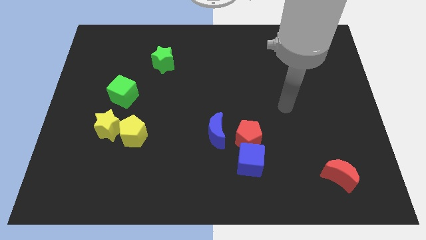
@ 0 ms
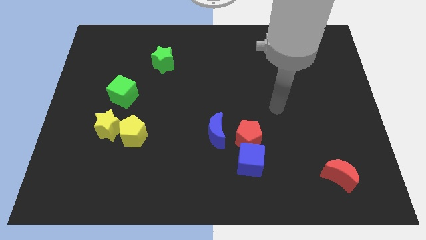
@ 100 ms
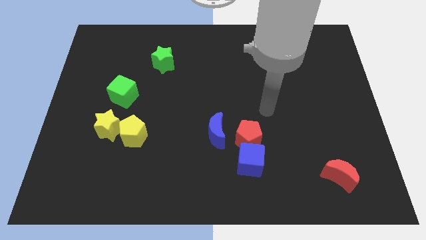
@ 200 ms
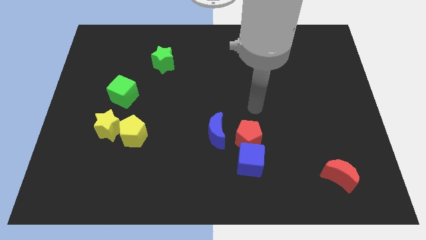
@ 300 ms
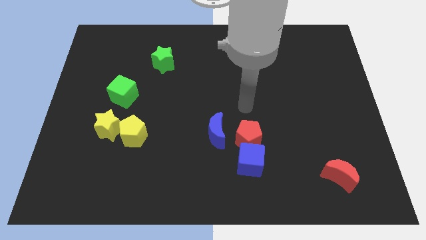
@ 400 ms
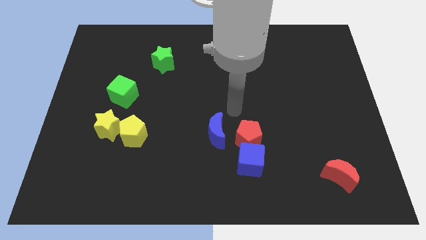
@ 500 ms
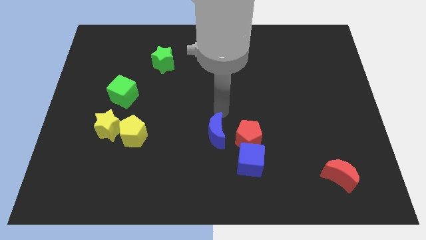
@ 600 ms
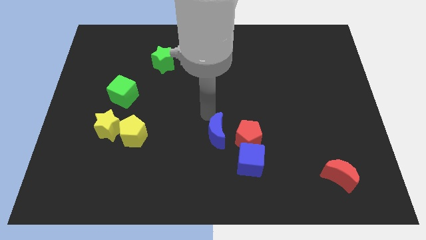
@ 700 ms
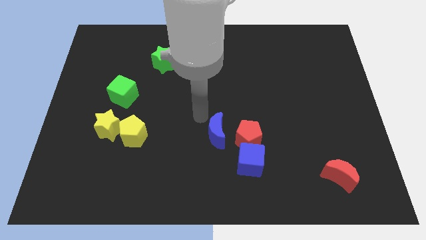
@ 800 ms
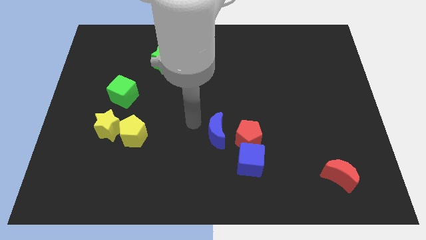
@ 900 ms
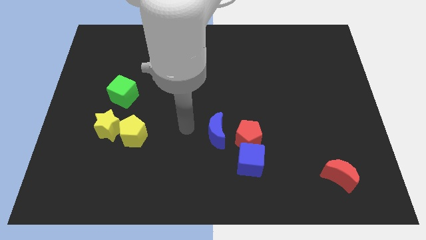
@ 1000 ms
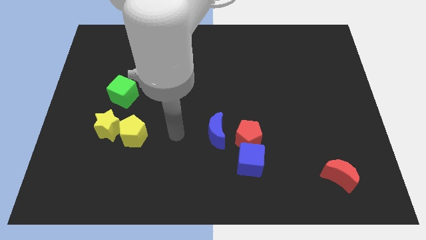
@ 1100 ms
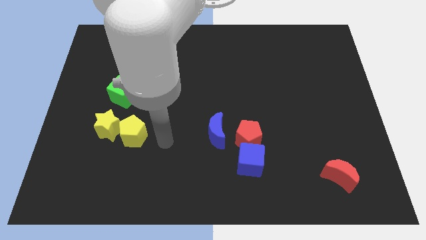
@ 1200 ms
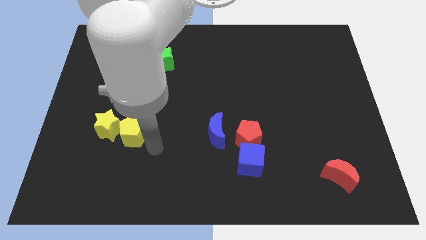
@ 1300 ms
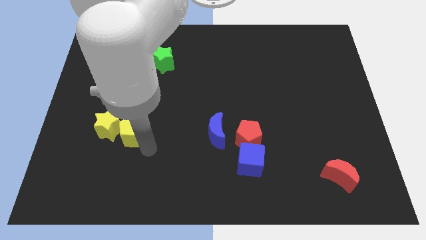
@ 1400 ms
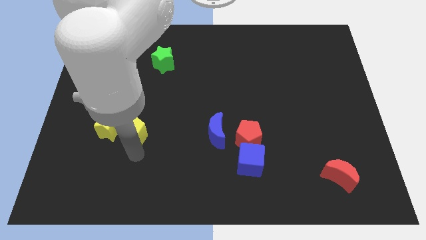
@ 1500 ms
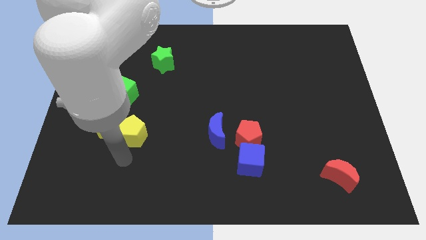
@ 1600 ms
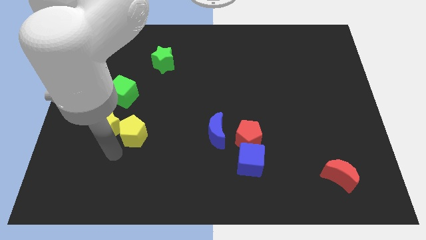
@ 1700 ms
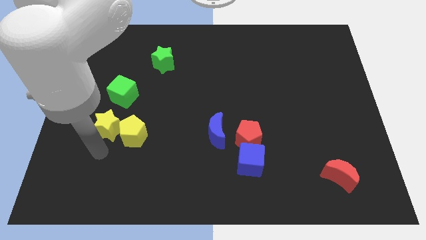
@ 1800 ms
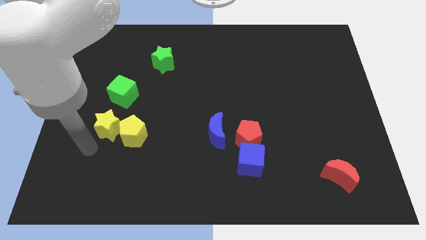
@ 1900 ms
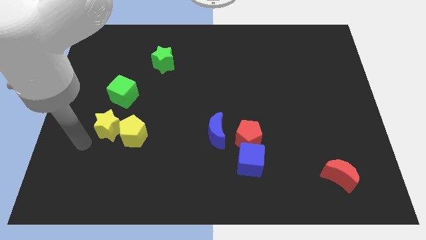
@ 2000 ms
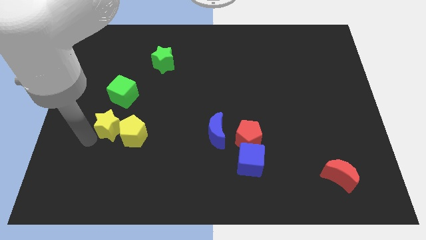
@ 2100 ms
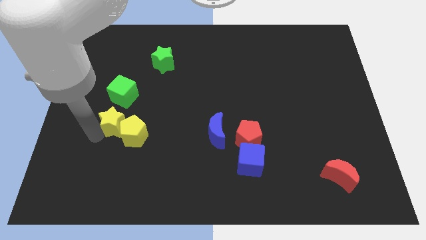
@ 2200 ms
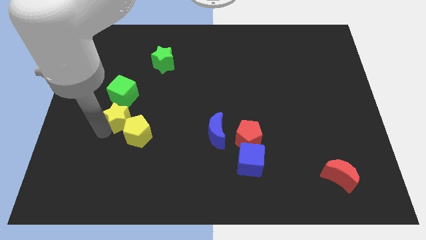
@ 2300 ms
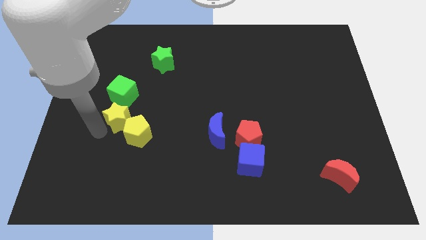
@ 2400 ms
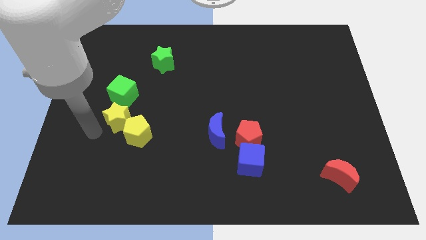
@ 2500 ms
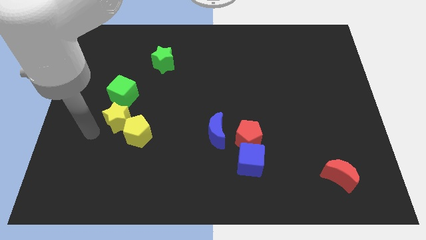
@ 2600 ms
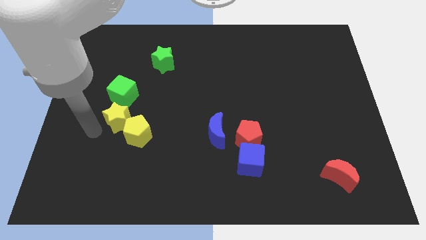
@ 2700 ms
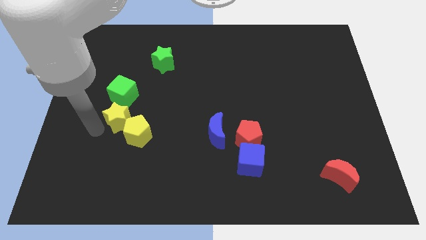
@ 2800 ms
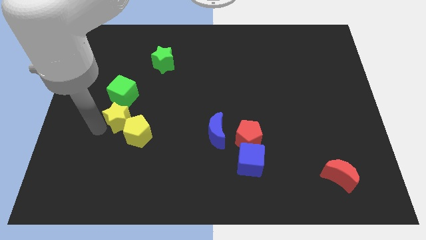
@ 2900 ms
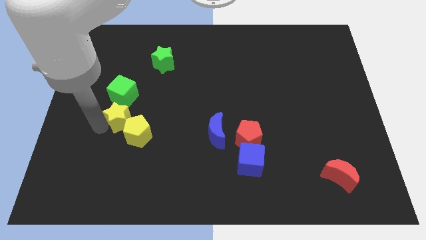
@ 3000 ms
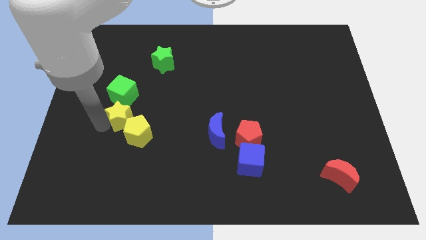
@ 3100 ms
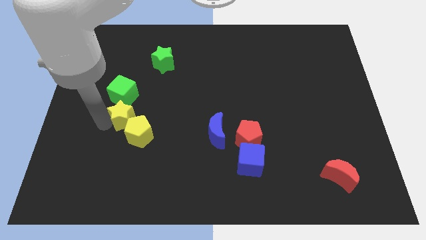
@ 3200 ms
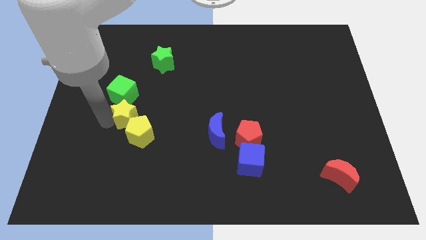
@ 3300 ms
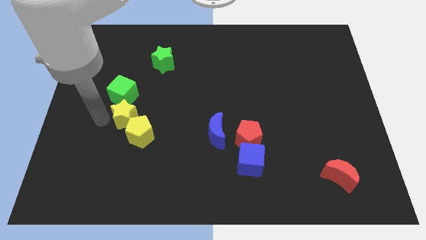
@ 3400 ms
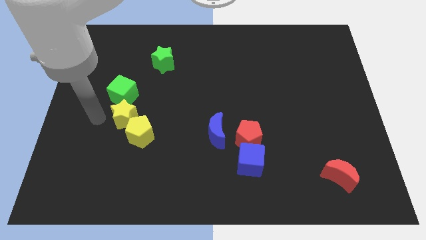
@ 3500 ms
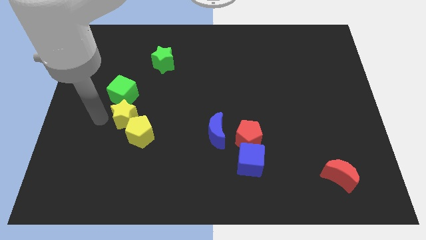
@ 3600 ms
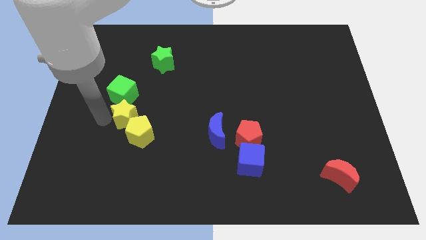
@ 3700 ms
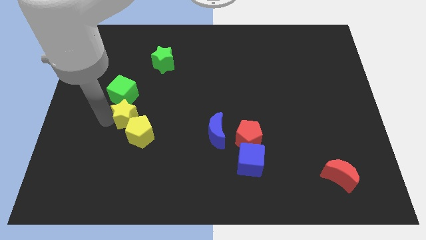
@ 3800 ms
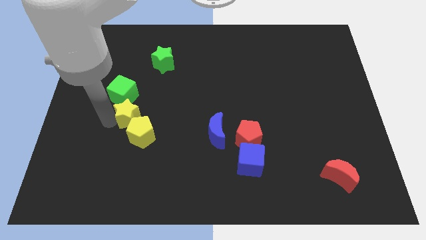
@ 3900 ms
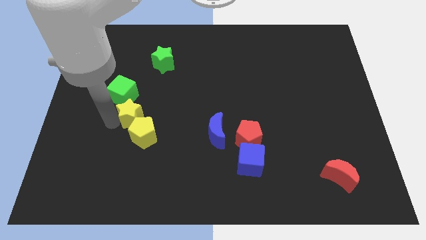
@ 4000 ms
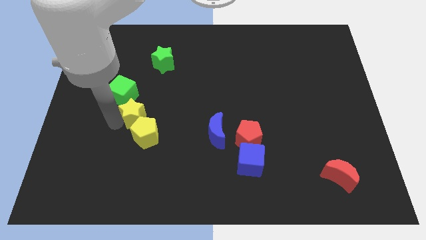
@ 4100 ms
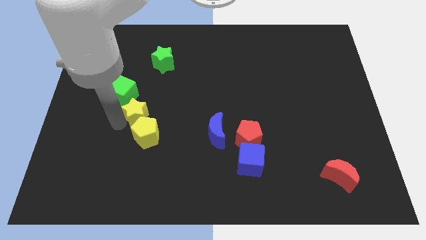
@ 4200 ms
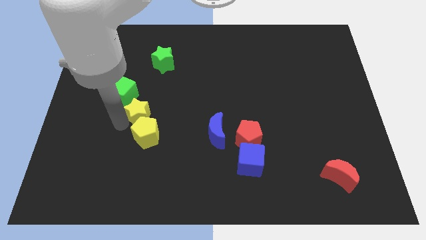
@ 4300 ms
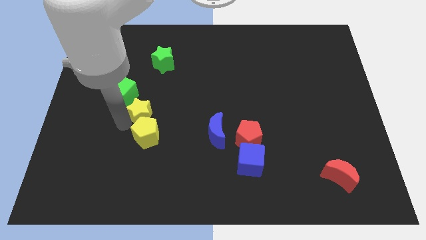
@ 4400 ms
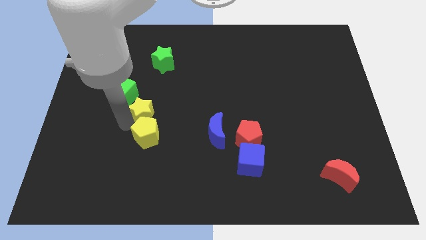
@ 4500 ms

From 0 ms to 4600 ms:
slightly push the yellow star right

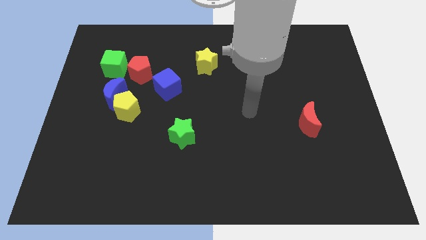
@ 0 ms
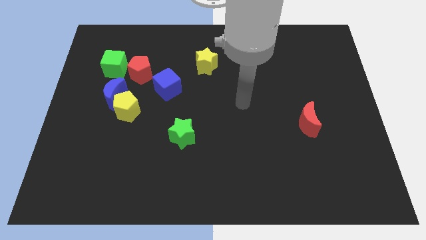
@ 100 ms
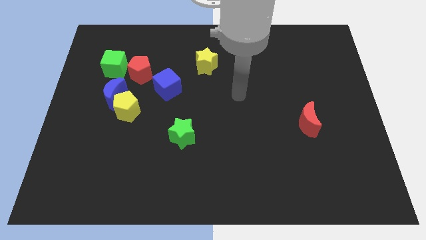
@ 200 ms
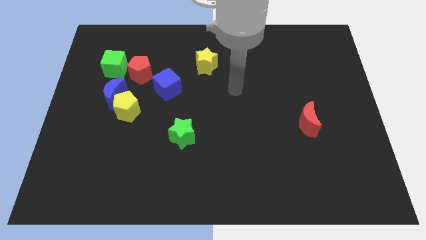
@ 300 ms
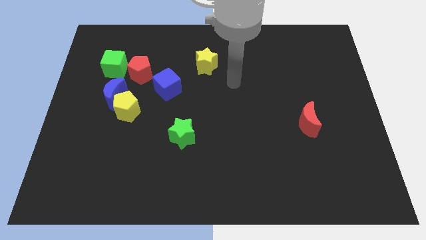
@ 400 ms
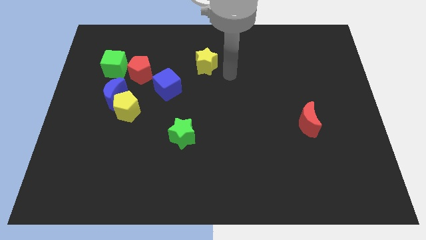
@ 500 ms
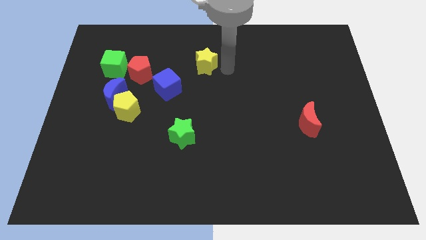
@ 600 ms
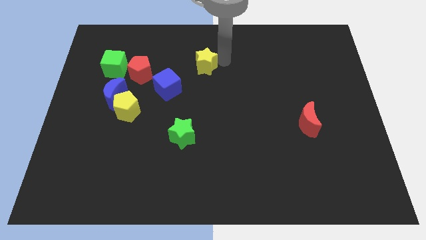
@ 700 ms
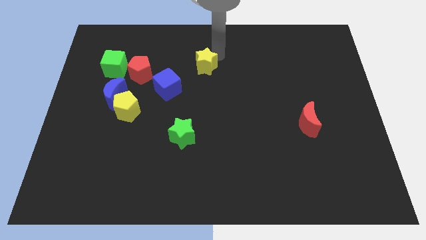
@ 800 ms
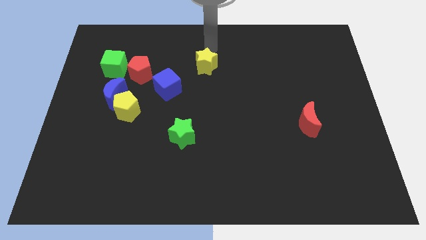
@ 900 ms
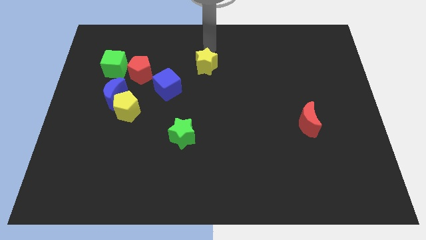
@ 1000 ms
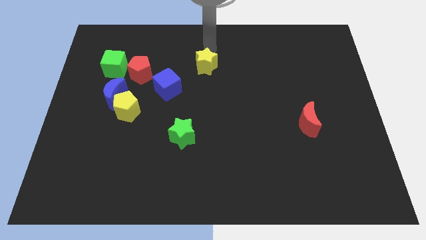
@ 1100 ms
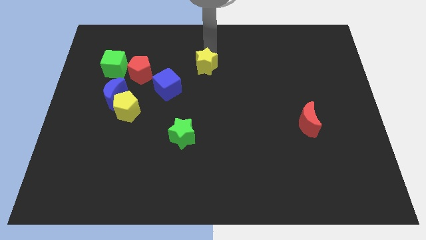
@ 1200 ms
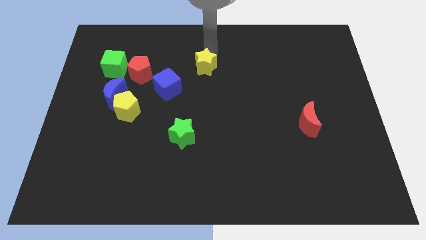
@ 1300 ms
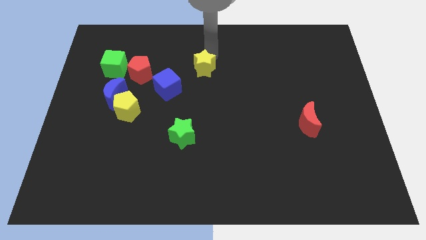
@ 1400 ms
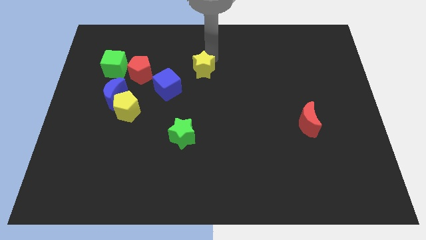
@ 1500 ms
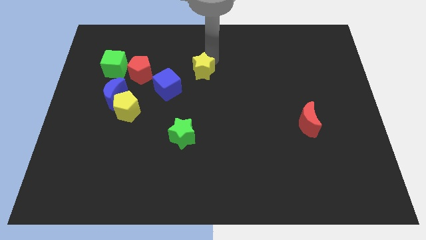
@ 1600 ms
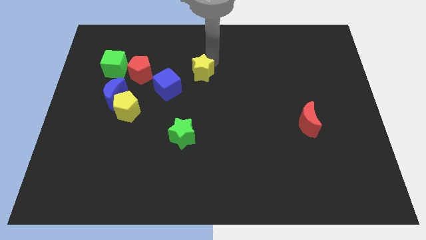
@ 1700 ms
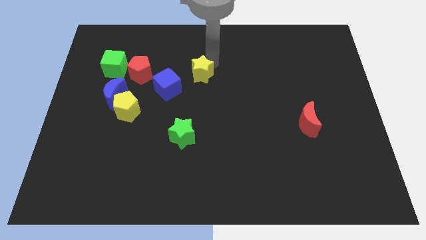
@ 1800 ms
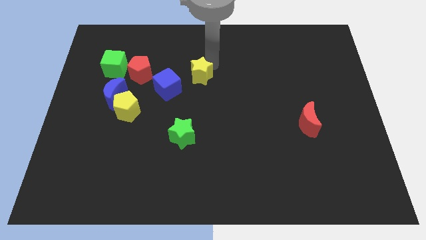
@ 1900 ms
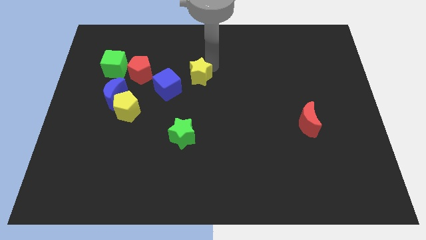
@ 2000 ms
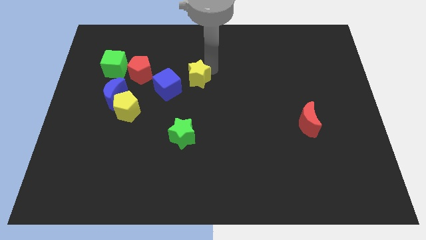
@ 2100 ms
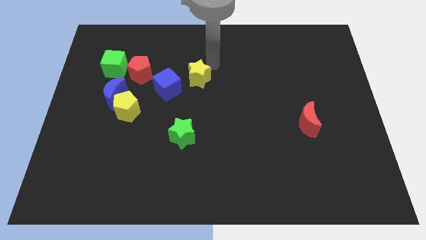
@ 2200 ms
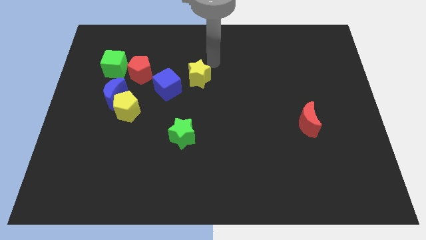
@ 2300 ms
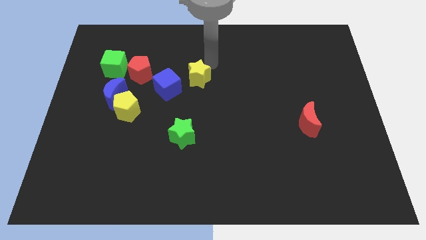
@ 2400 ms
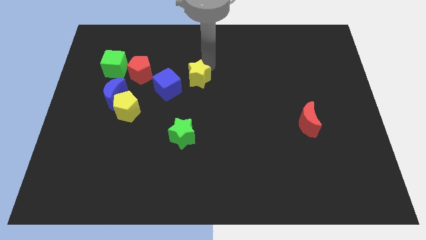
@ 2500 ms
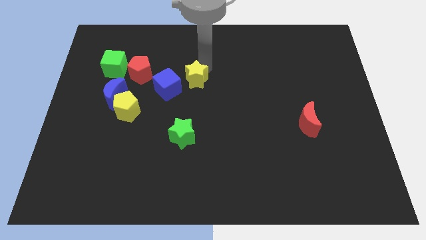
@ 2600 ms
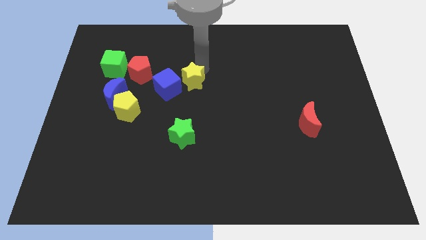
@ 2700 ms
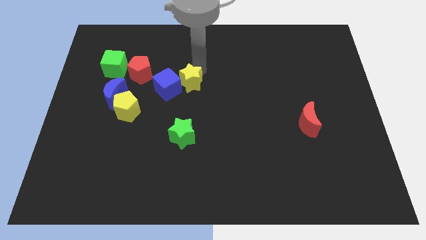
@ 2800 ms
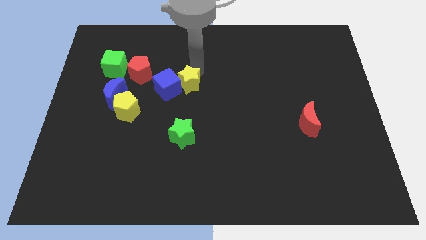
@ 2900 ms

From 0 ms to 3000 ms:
slightly slide the yellow star diagonally down and to the left

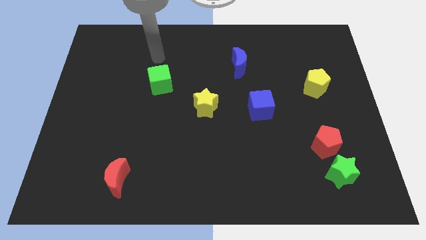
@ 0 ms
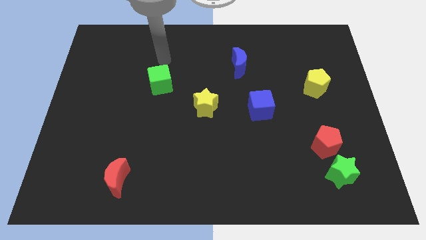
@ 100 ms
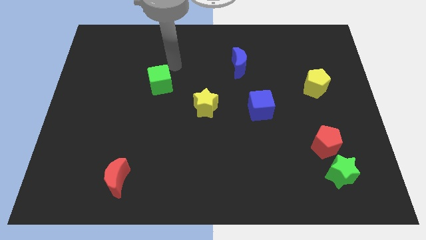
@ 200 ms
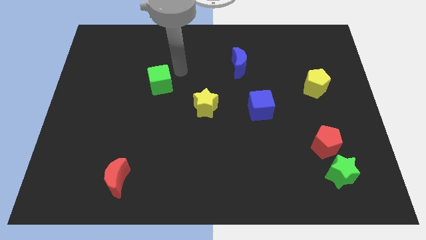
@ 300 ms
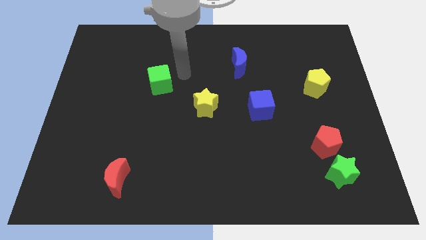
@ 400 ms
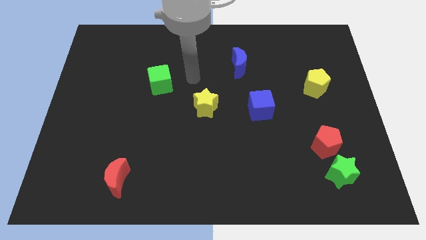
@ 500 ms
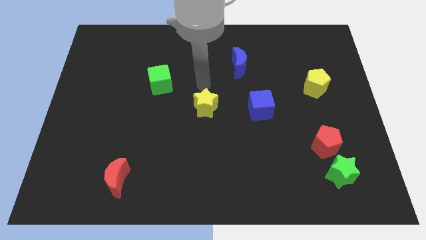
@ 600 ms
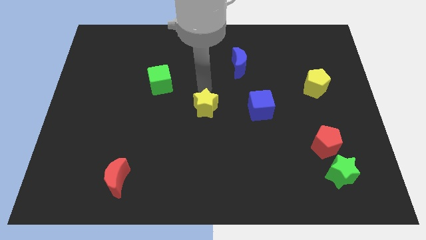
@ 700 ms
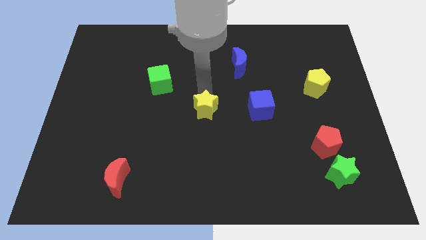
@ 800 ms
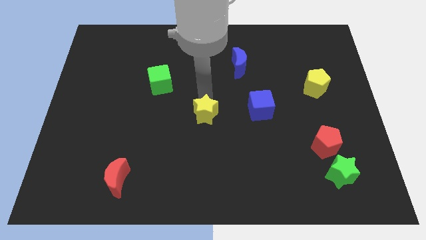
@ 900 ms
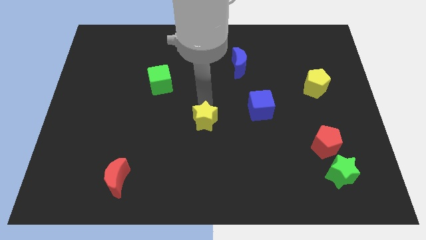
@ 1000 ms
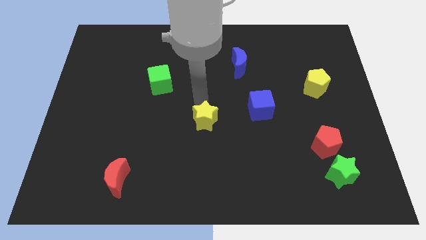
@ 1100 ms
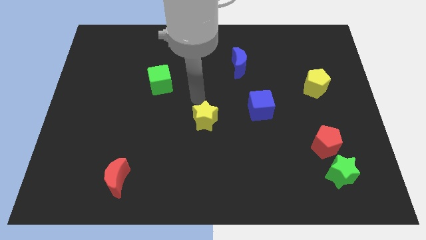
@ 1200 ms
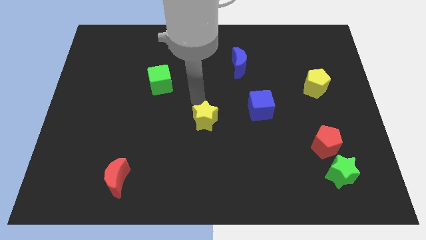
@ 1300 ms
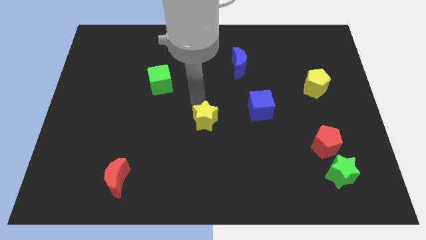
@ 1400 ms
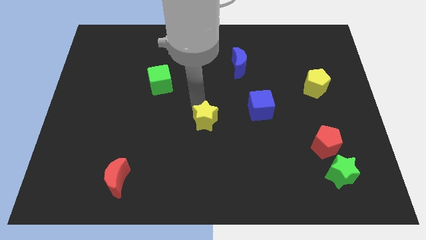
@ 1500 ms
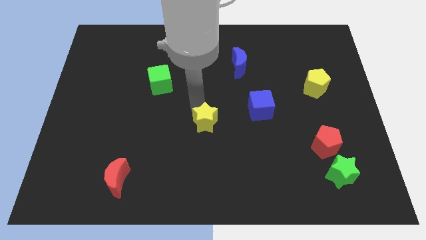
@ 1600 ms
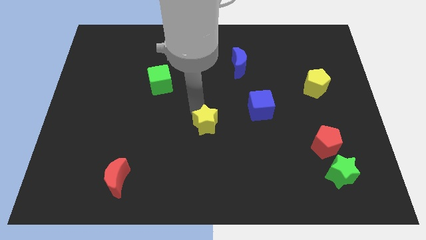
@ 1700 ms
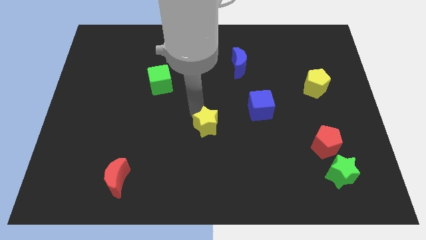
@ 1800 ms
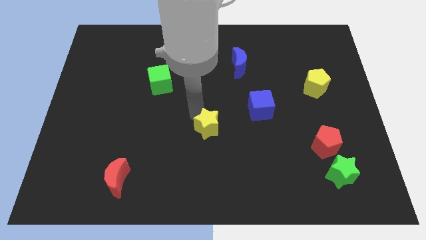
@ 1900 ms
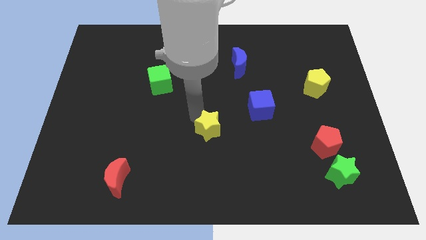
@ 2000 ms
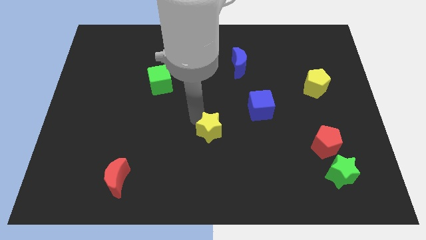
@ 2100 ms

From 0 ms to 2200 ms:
push the yellow star a bit down
